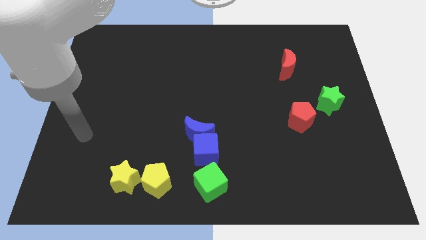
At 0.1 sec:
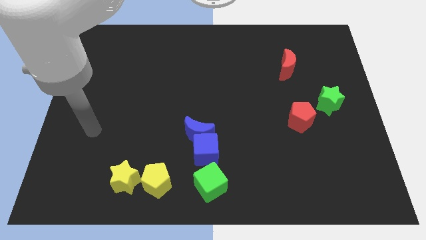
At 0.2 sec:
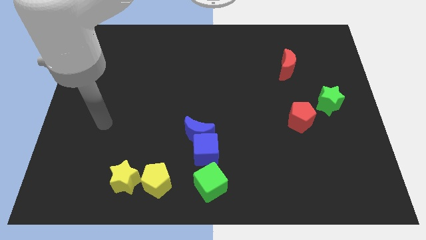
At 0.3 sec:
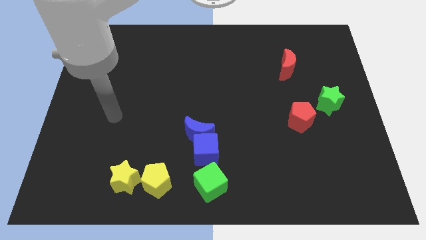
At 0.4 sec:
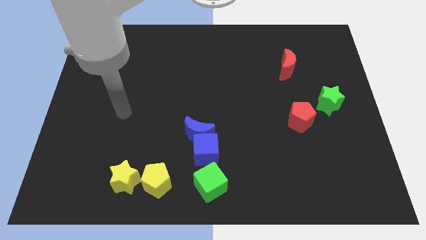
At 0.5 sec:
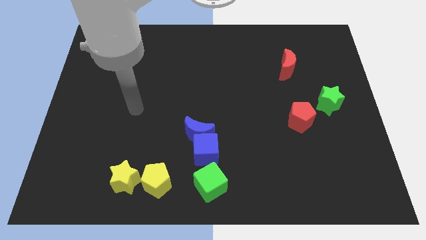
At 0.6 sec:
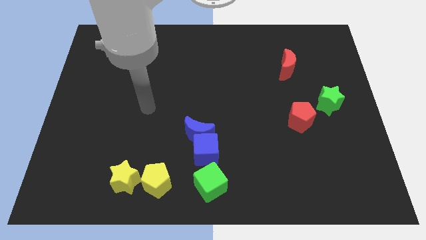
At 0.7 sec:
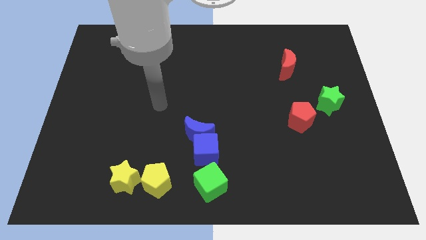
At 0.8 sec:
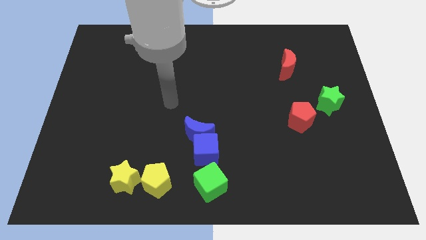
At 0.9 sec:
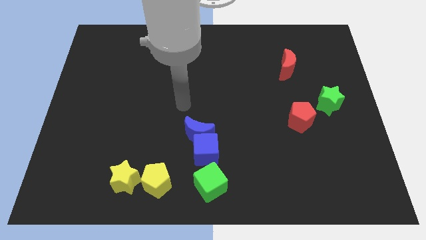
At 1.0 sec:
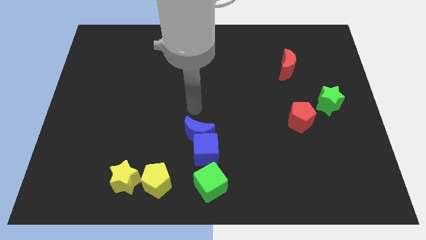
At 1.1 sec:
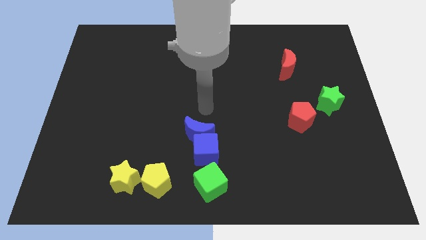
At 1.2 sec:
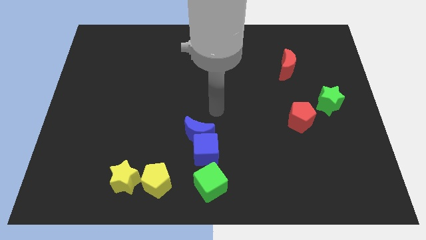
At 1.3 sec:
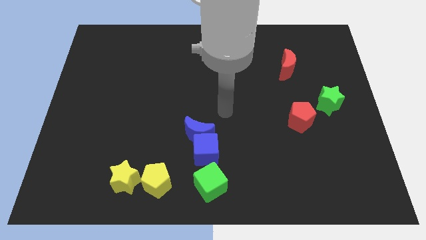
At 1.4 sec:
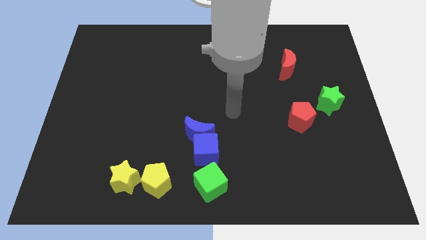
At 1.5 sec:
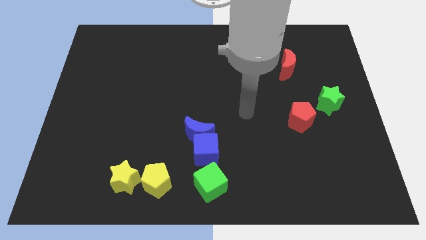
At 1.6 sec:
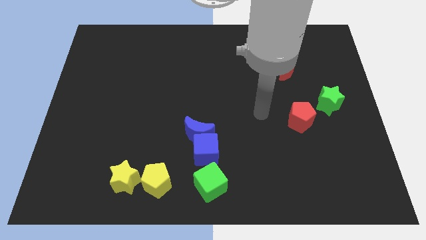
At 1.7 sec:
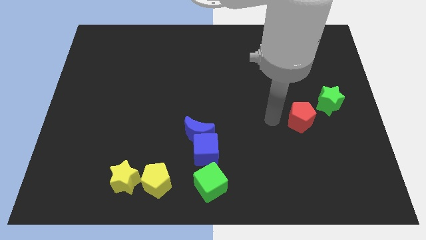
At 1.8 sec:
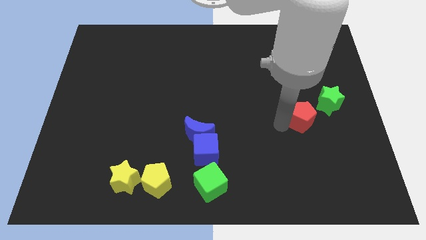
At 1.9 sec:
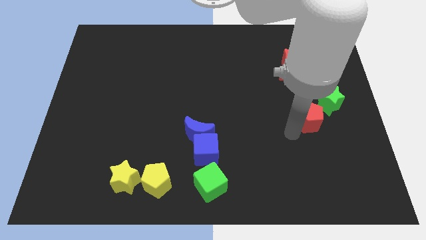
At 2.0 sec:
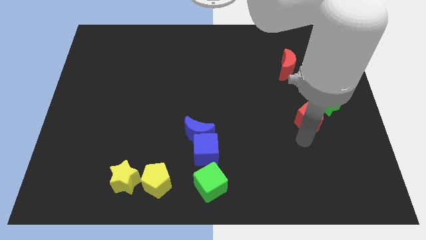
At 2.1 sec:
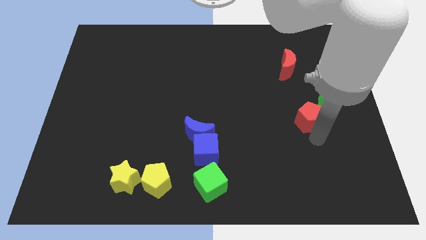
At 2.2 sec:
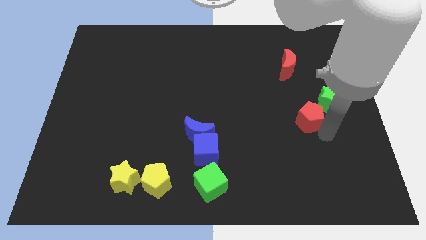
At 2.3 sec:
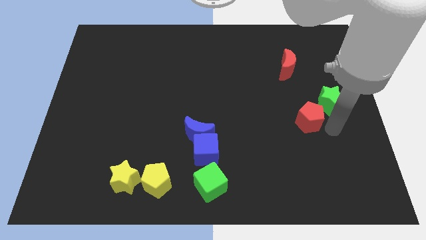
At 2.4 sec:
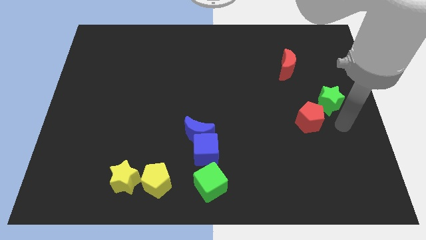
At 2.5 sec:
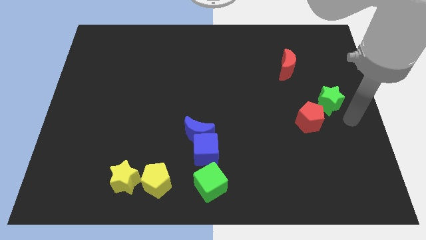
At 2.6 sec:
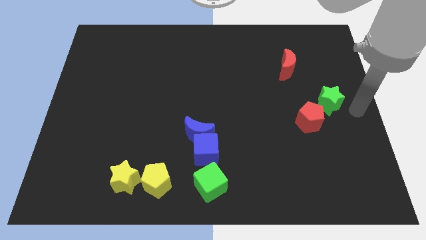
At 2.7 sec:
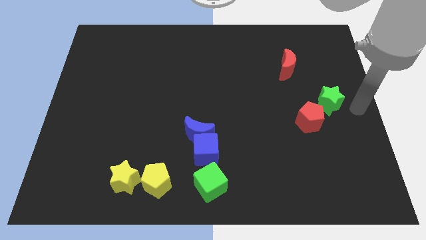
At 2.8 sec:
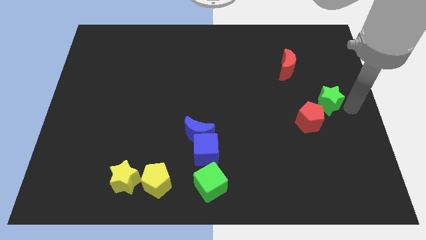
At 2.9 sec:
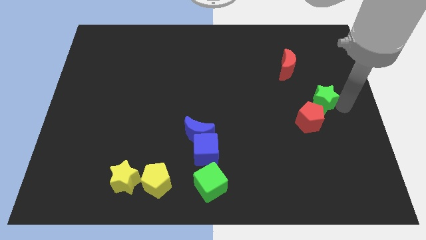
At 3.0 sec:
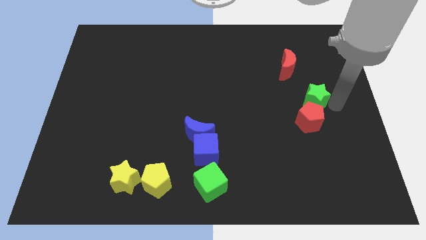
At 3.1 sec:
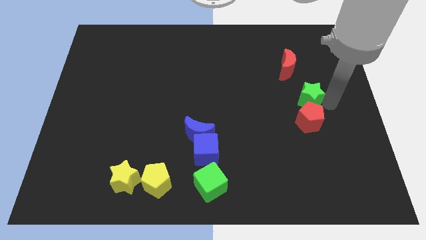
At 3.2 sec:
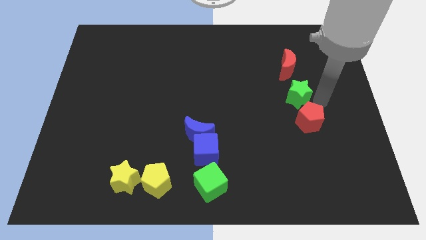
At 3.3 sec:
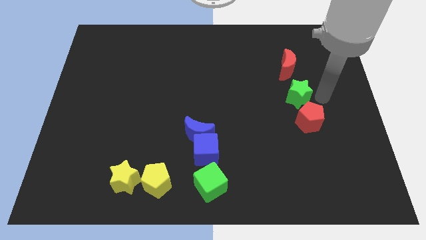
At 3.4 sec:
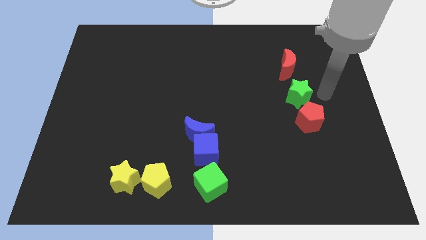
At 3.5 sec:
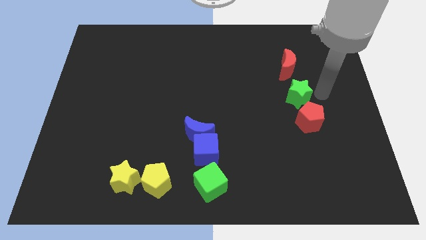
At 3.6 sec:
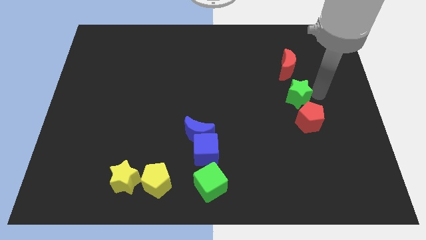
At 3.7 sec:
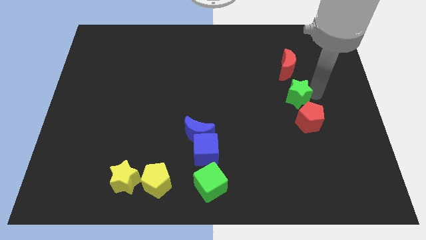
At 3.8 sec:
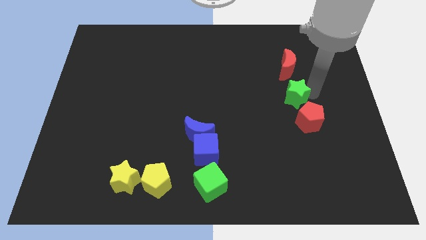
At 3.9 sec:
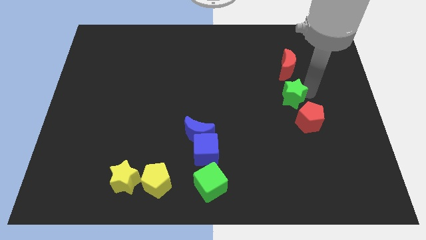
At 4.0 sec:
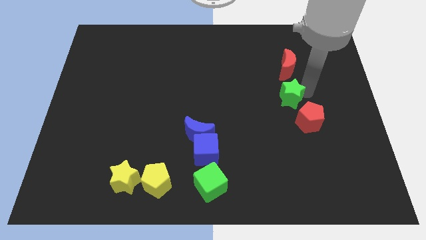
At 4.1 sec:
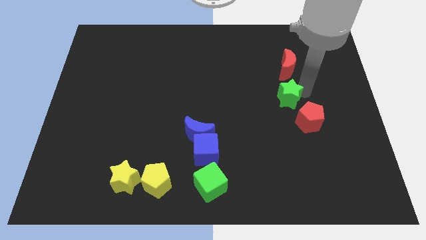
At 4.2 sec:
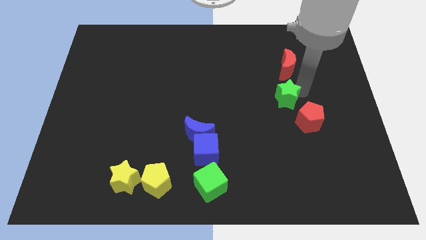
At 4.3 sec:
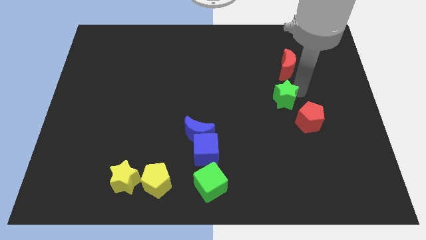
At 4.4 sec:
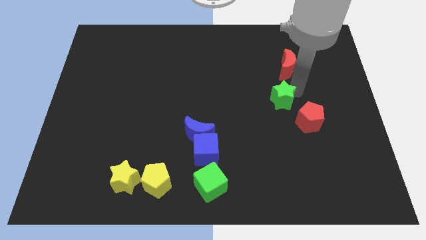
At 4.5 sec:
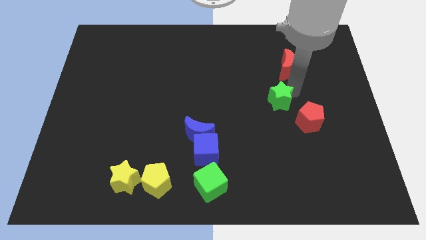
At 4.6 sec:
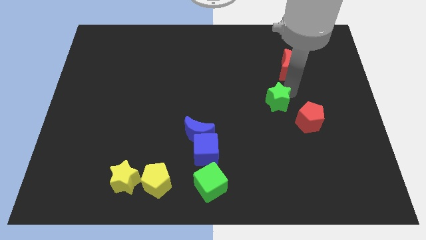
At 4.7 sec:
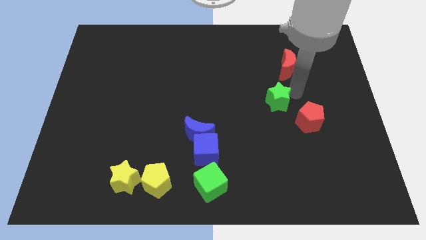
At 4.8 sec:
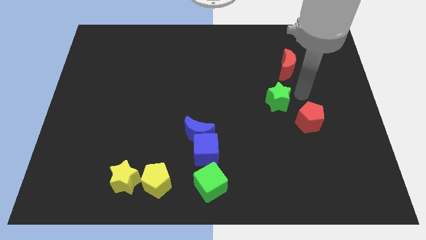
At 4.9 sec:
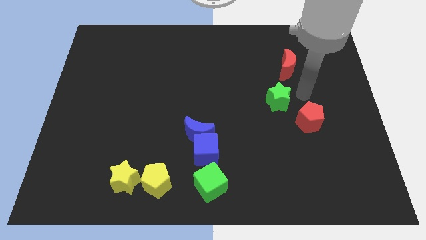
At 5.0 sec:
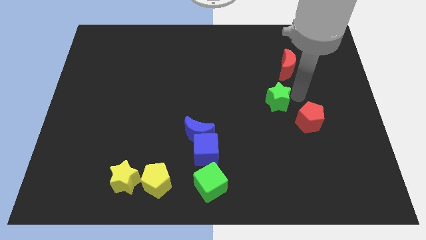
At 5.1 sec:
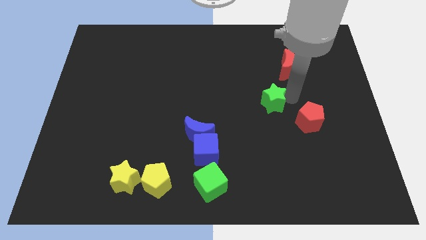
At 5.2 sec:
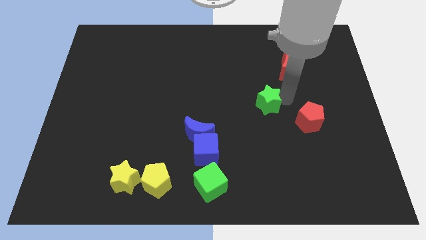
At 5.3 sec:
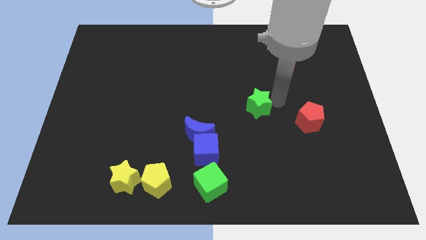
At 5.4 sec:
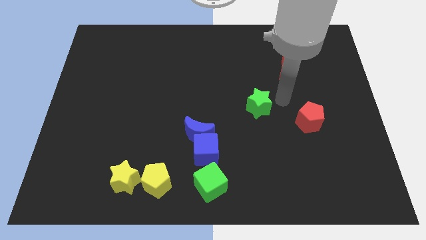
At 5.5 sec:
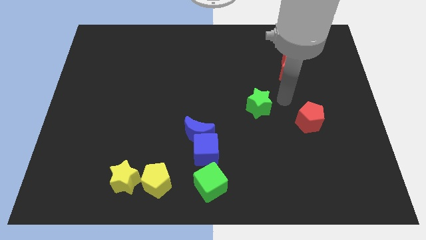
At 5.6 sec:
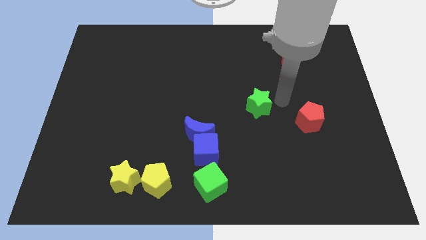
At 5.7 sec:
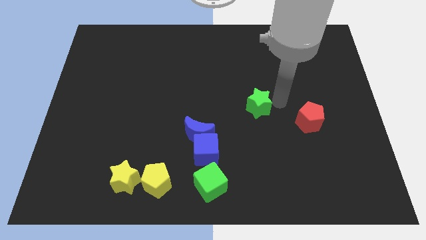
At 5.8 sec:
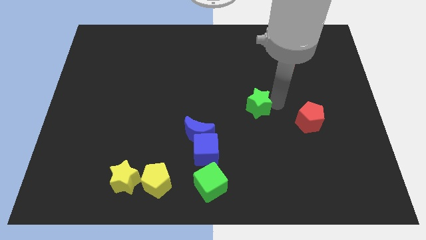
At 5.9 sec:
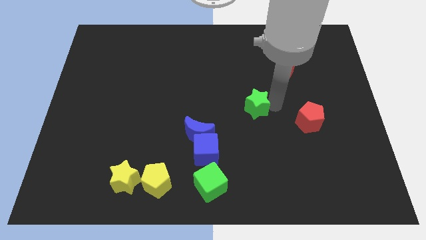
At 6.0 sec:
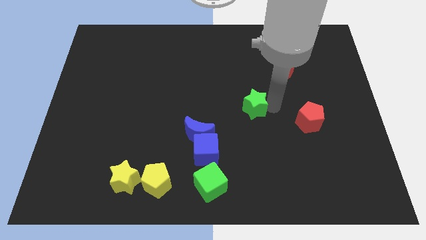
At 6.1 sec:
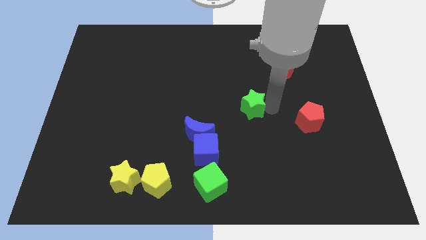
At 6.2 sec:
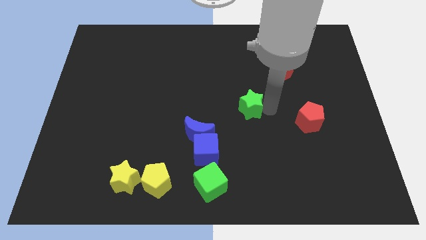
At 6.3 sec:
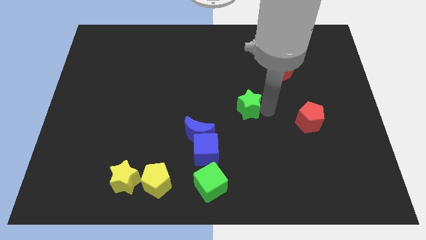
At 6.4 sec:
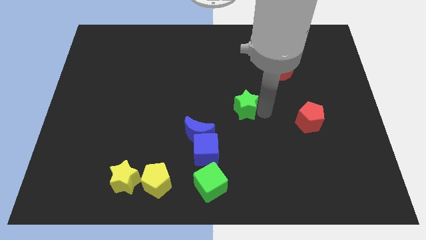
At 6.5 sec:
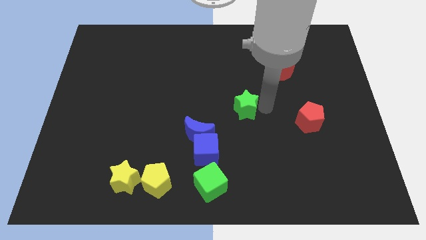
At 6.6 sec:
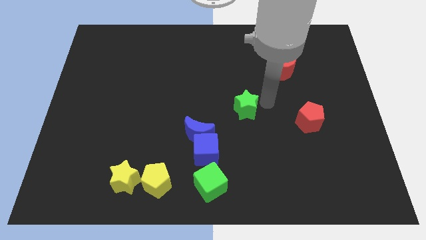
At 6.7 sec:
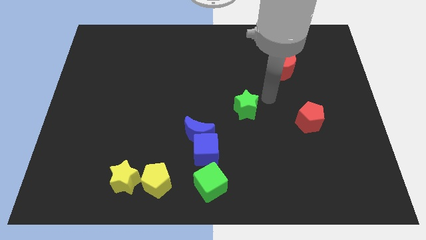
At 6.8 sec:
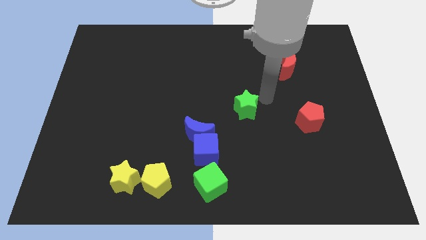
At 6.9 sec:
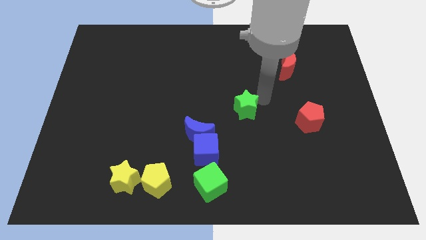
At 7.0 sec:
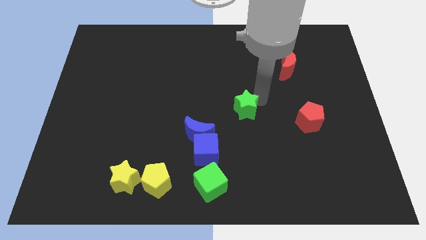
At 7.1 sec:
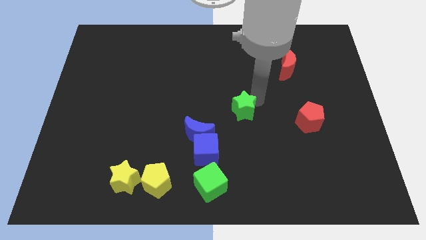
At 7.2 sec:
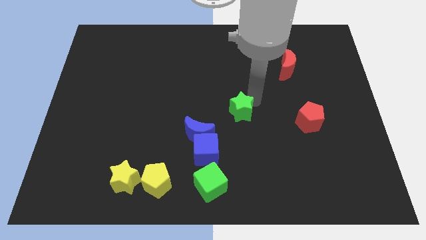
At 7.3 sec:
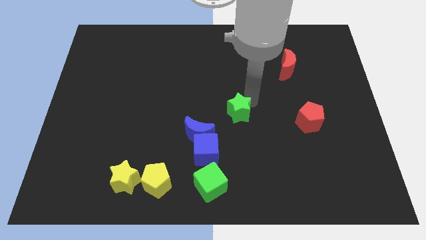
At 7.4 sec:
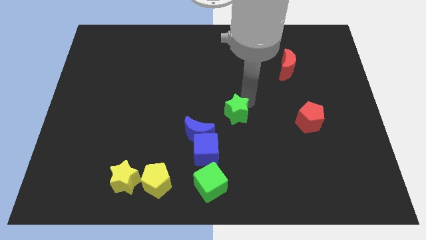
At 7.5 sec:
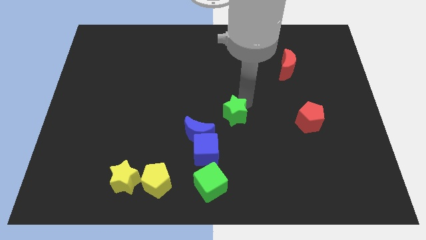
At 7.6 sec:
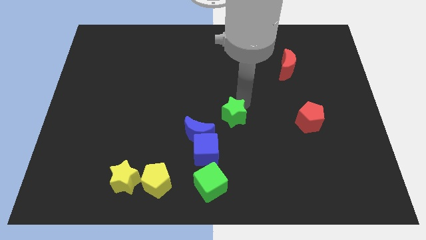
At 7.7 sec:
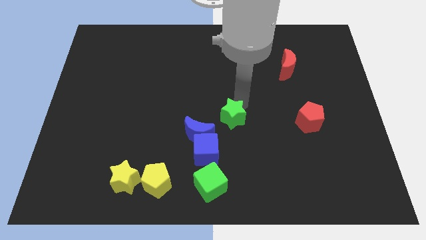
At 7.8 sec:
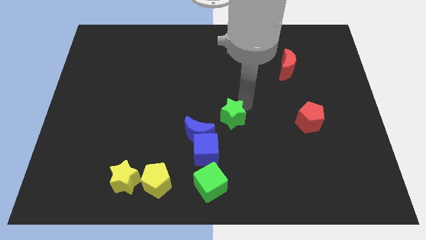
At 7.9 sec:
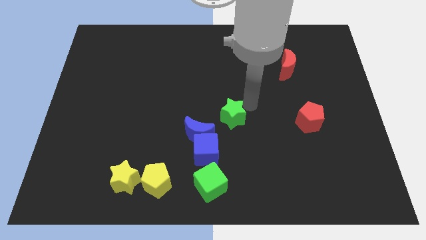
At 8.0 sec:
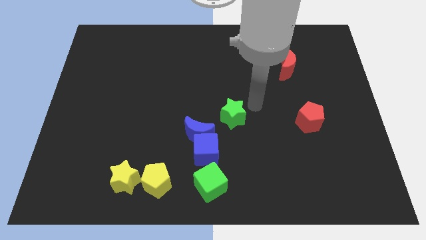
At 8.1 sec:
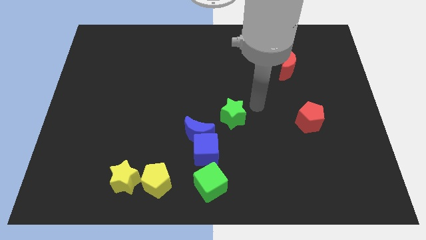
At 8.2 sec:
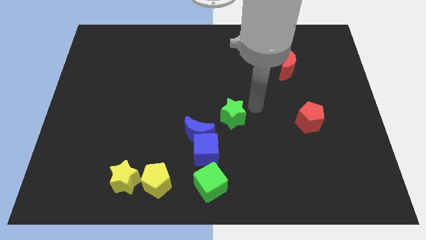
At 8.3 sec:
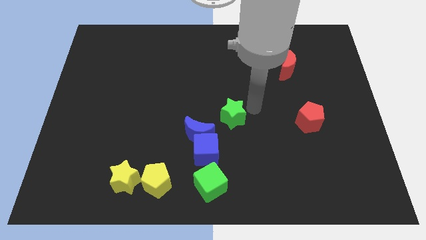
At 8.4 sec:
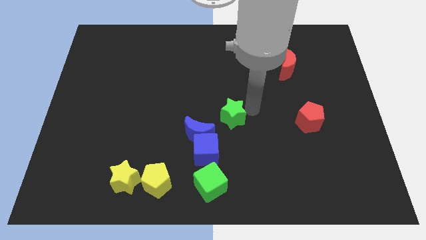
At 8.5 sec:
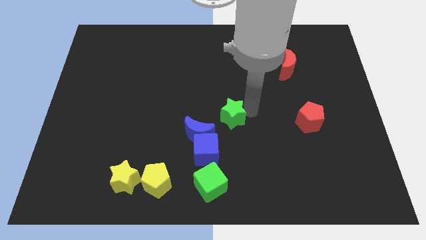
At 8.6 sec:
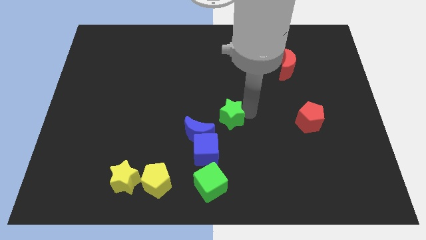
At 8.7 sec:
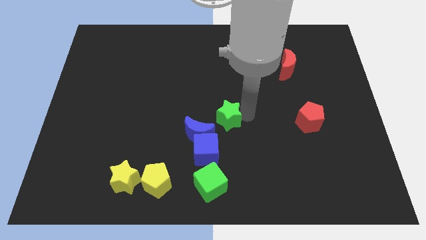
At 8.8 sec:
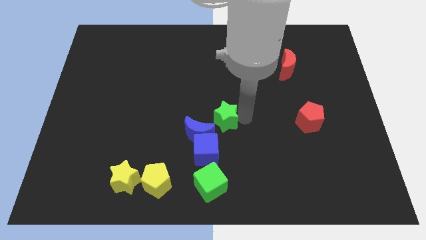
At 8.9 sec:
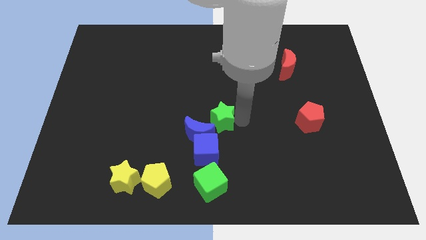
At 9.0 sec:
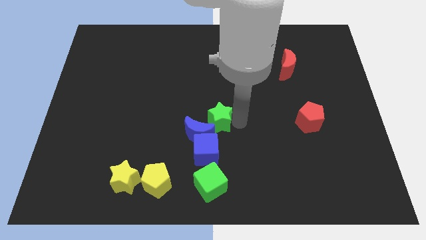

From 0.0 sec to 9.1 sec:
slide the green star towards the blue moon
